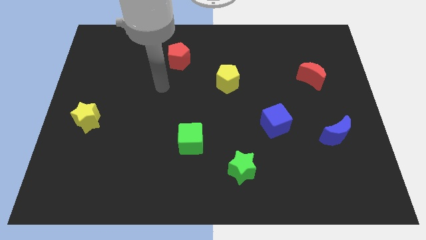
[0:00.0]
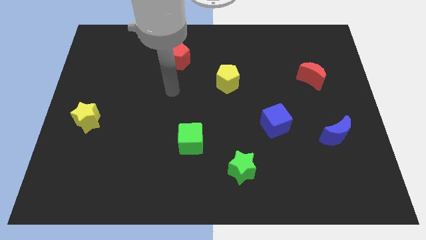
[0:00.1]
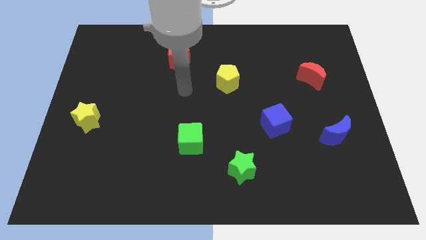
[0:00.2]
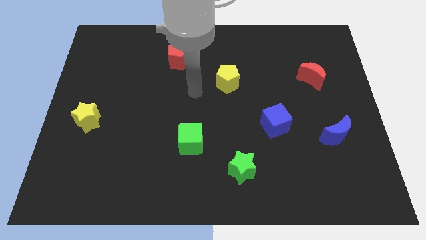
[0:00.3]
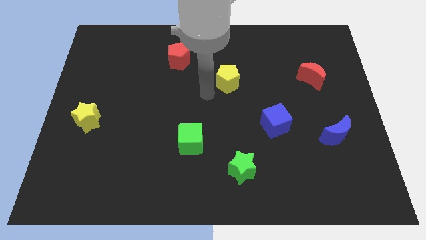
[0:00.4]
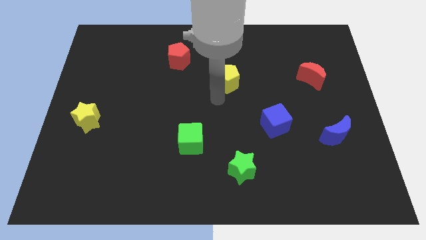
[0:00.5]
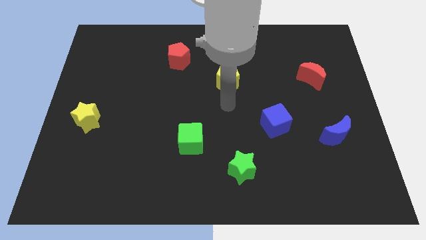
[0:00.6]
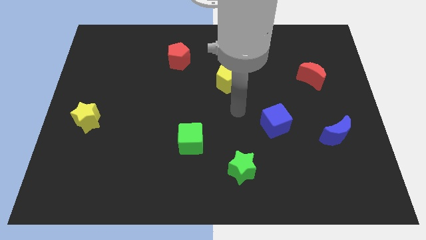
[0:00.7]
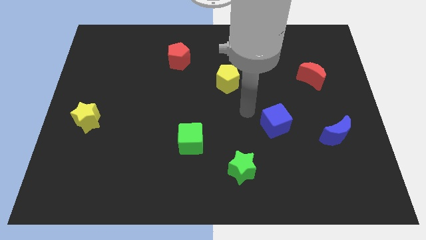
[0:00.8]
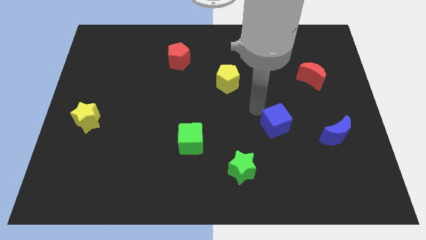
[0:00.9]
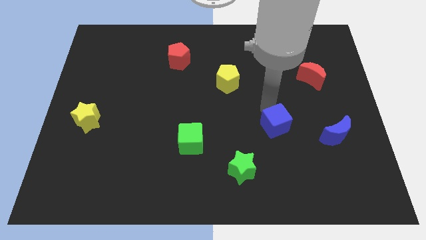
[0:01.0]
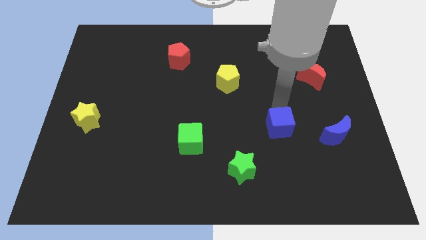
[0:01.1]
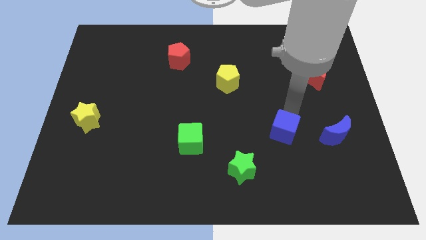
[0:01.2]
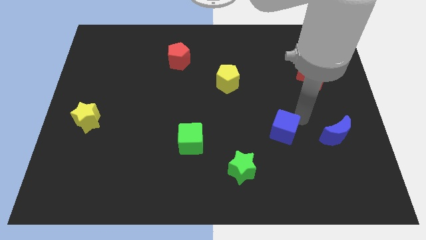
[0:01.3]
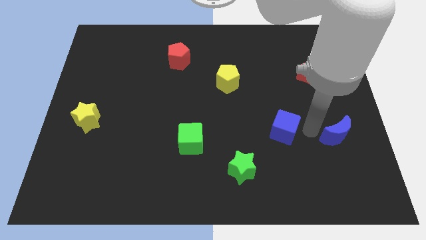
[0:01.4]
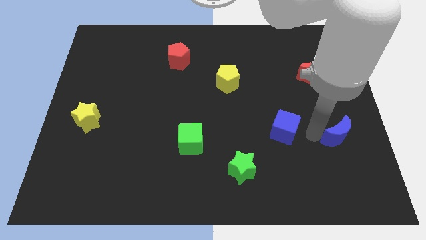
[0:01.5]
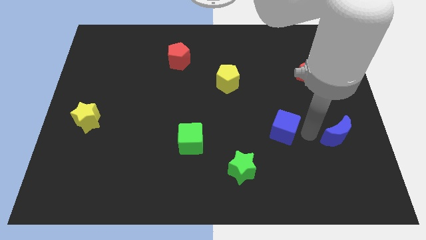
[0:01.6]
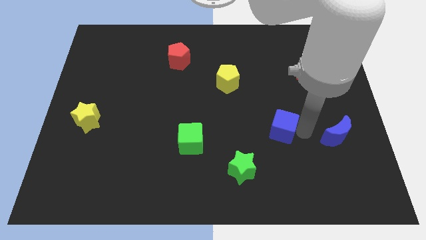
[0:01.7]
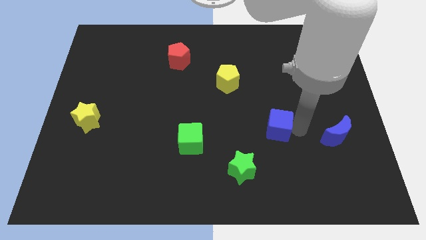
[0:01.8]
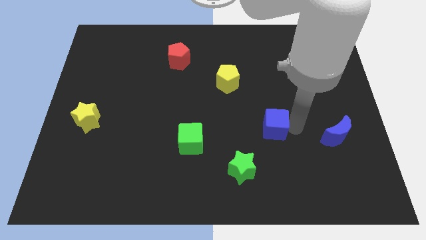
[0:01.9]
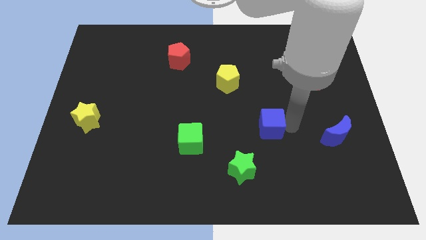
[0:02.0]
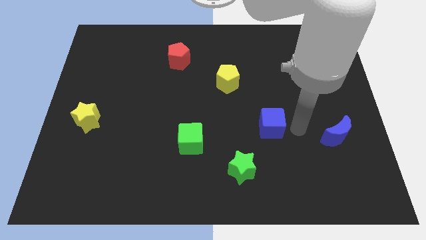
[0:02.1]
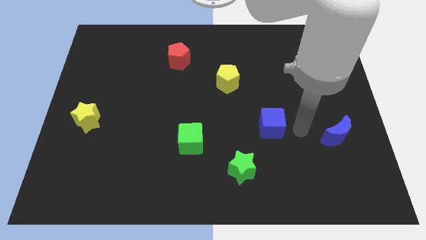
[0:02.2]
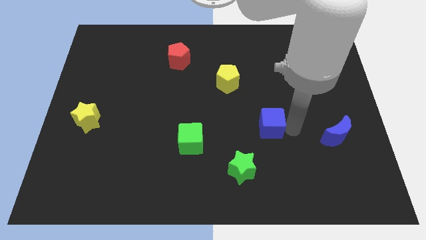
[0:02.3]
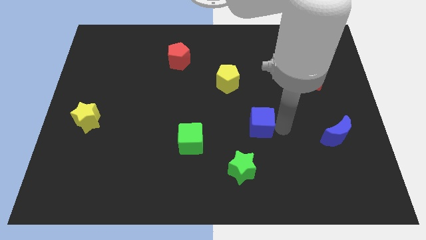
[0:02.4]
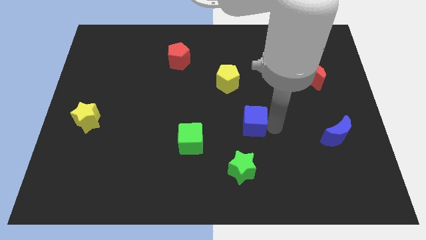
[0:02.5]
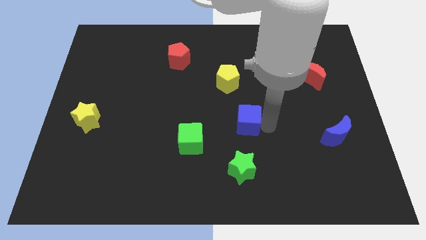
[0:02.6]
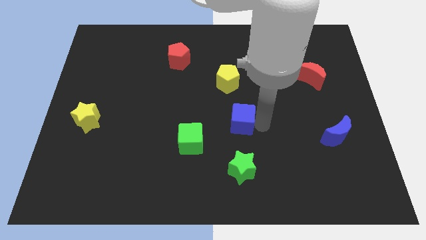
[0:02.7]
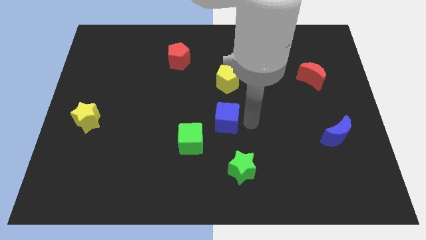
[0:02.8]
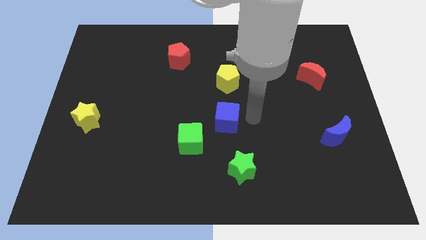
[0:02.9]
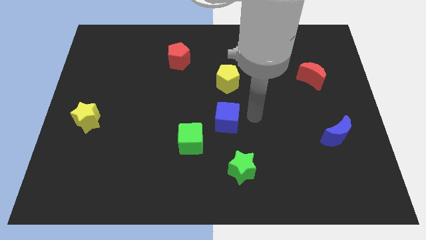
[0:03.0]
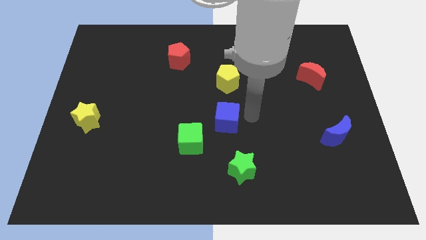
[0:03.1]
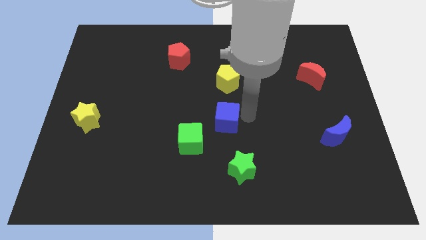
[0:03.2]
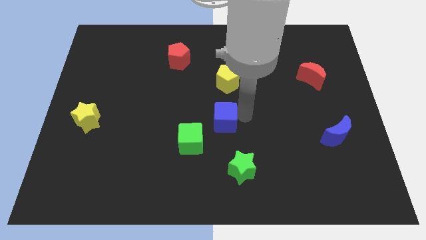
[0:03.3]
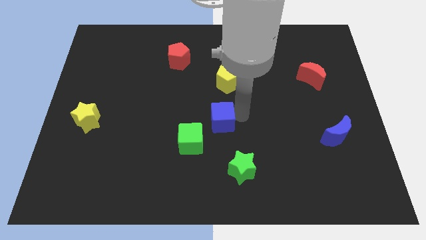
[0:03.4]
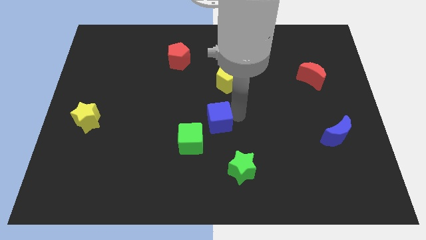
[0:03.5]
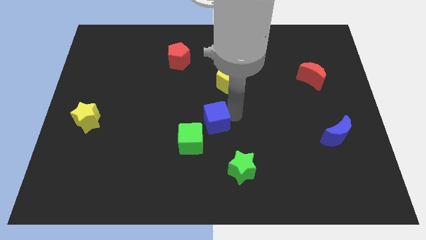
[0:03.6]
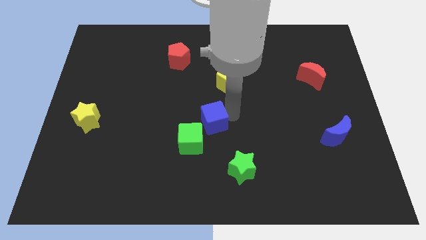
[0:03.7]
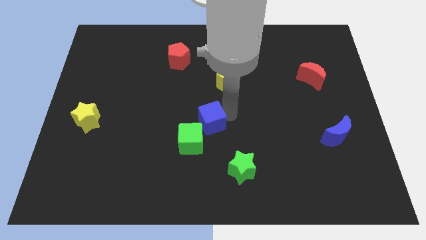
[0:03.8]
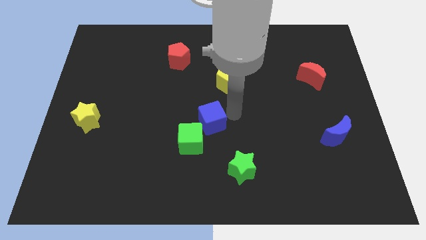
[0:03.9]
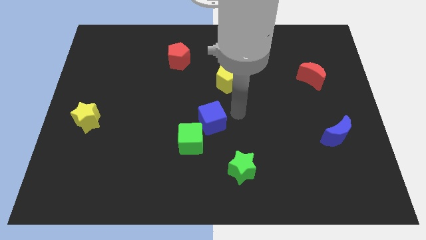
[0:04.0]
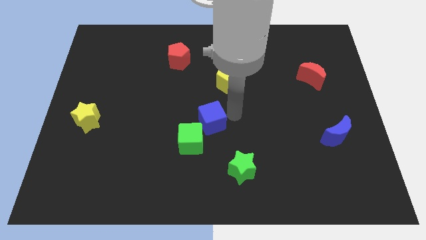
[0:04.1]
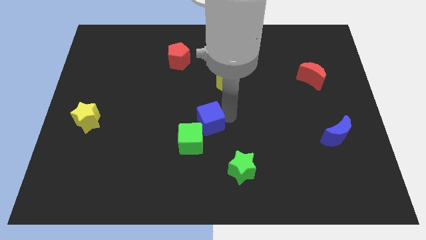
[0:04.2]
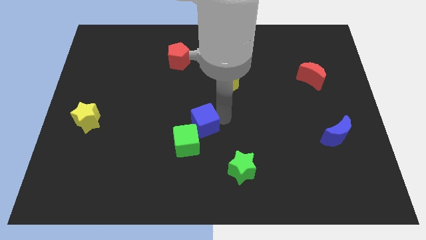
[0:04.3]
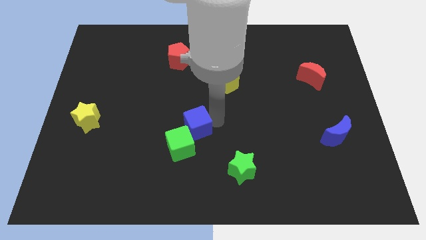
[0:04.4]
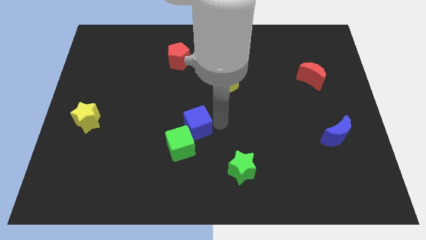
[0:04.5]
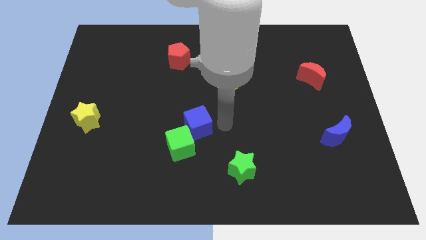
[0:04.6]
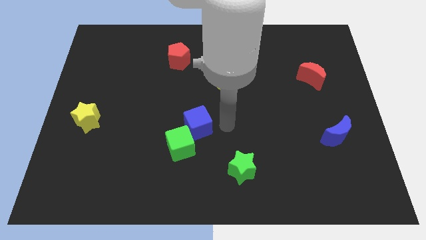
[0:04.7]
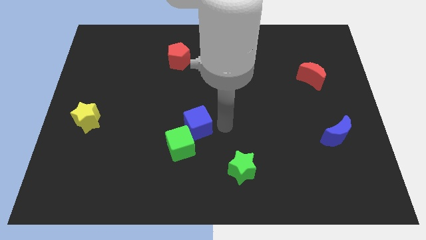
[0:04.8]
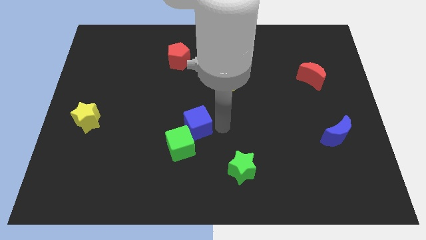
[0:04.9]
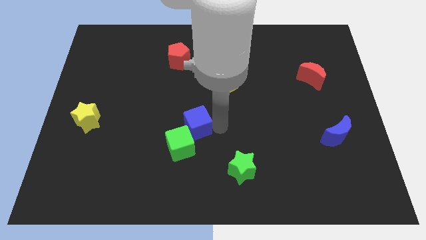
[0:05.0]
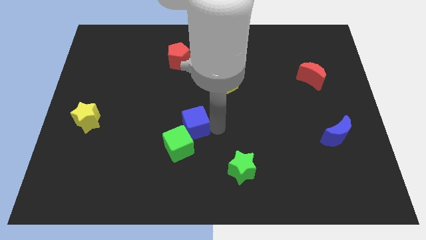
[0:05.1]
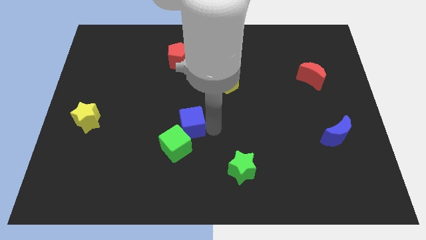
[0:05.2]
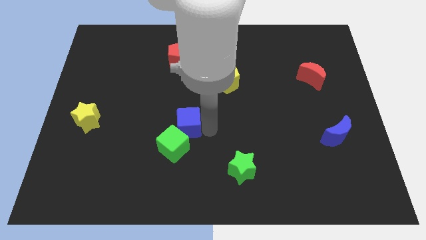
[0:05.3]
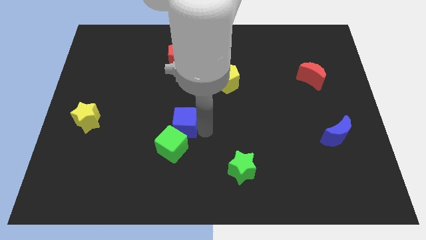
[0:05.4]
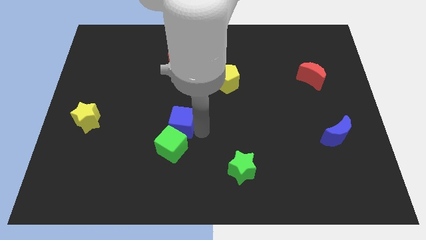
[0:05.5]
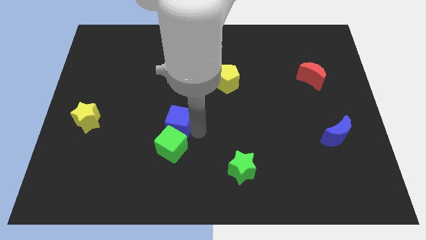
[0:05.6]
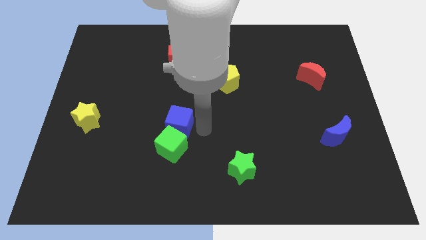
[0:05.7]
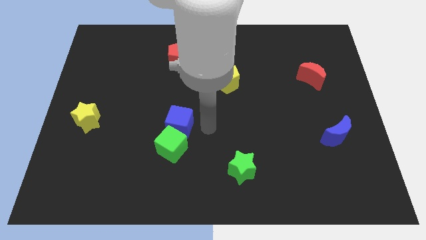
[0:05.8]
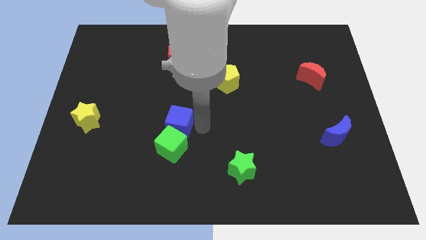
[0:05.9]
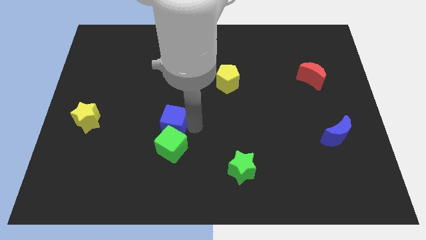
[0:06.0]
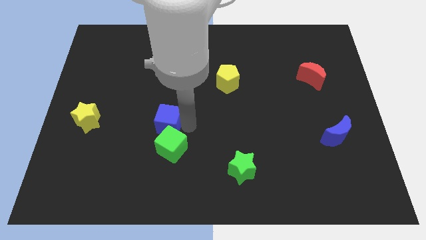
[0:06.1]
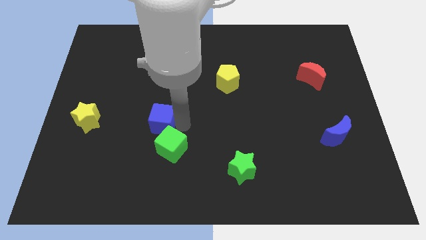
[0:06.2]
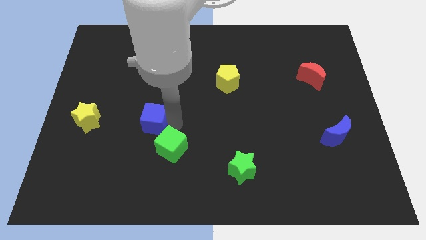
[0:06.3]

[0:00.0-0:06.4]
push the blue cube right of the yellow star
